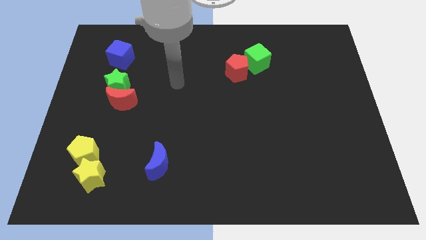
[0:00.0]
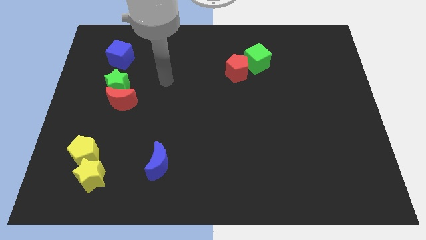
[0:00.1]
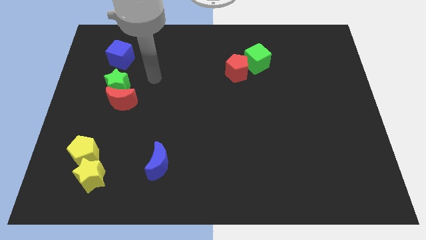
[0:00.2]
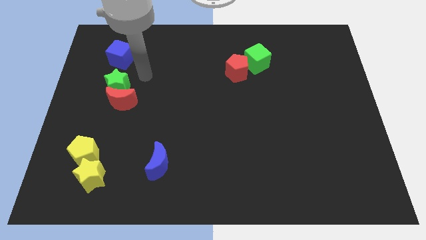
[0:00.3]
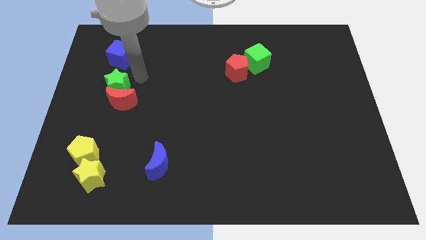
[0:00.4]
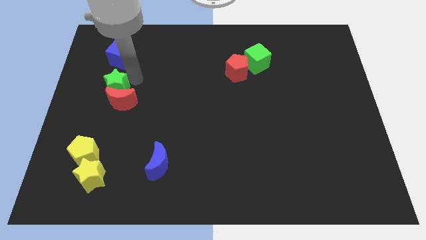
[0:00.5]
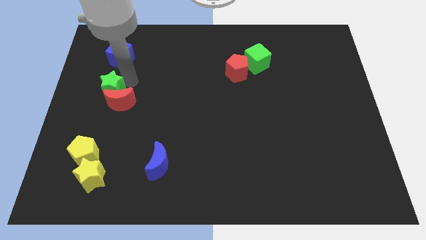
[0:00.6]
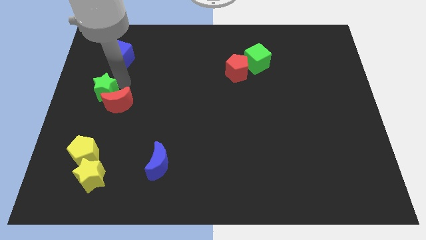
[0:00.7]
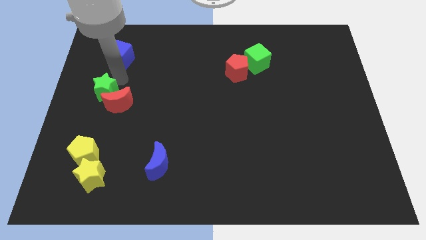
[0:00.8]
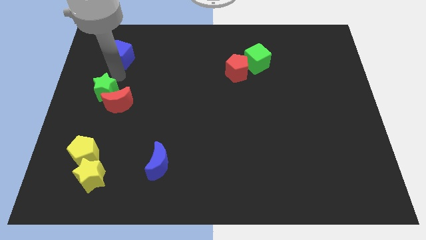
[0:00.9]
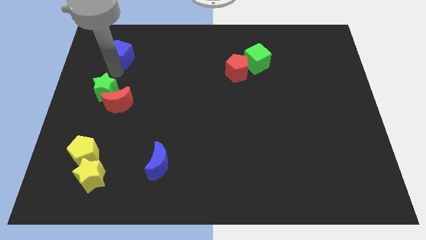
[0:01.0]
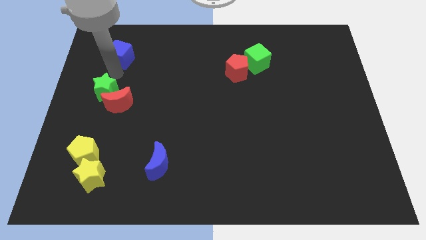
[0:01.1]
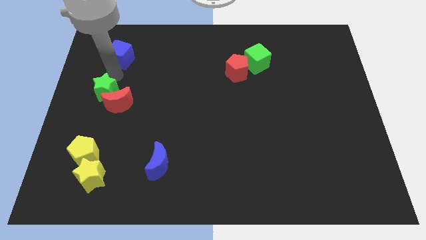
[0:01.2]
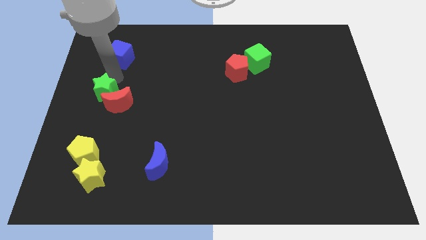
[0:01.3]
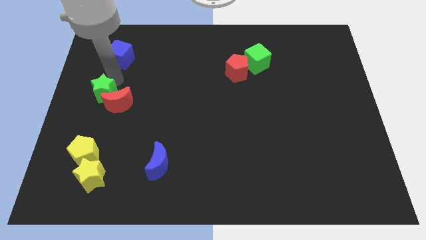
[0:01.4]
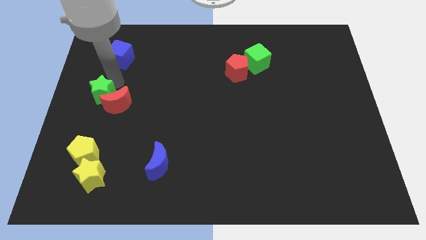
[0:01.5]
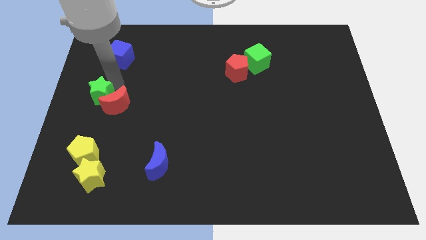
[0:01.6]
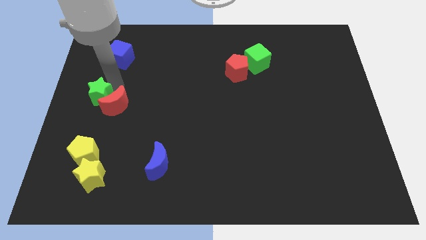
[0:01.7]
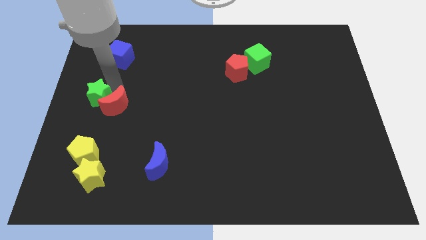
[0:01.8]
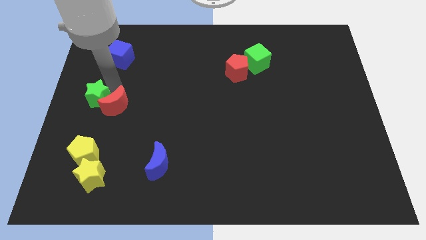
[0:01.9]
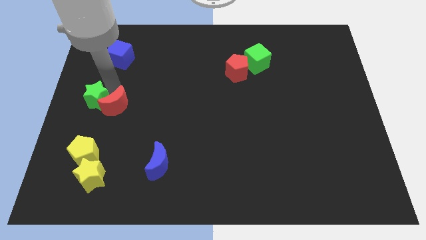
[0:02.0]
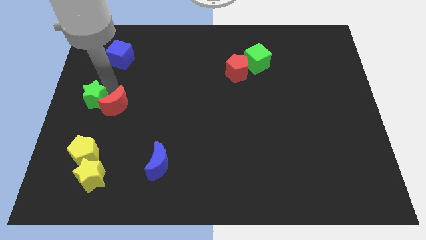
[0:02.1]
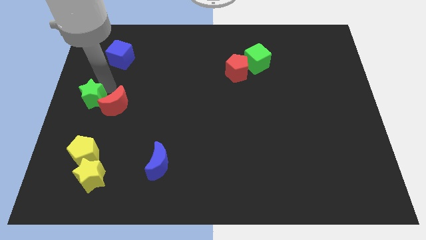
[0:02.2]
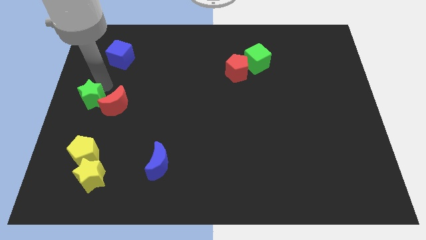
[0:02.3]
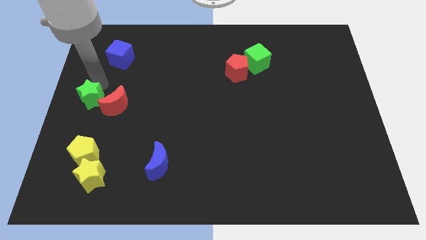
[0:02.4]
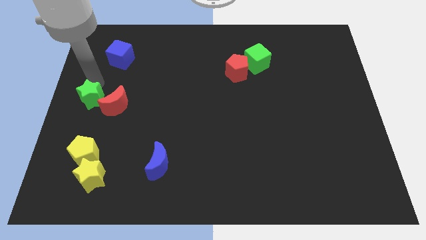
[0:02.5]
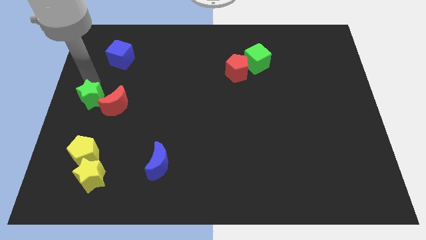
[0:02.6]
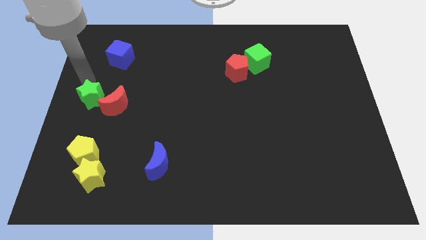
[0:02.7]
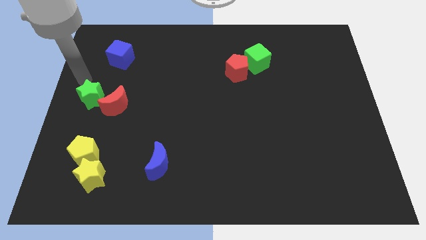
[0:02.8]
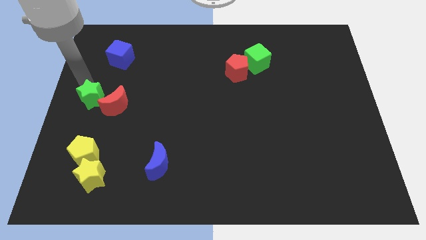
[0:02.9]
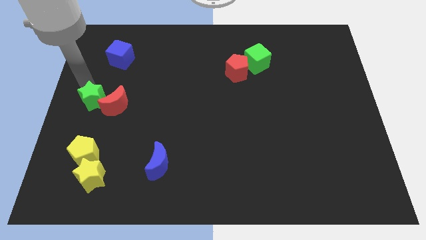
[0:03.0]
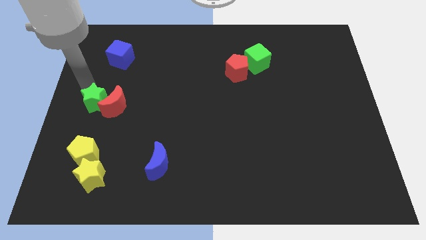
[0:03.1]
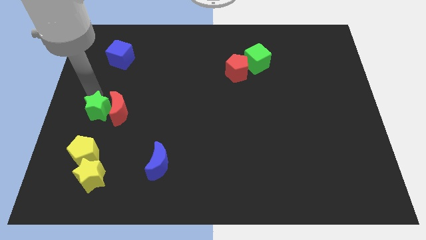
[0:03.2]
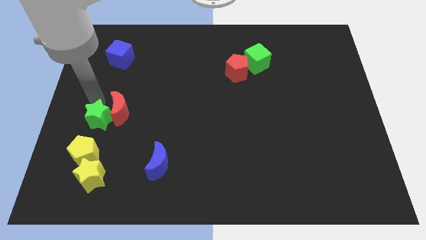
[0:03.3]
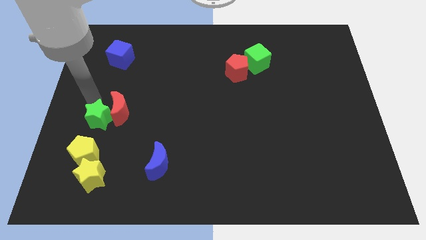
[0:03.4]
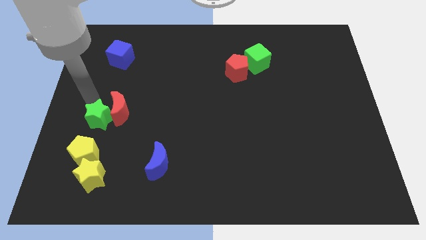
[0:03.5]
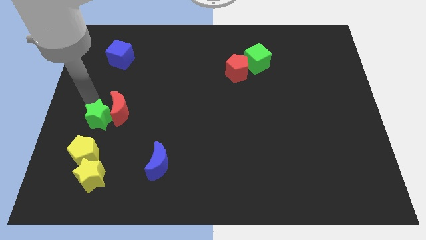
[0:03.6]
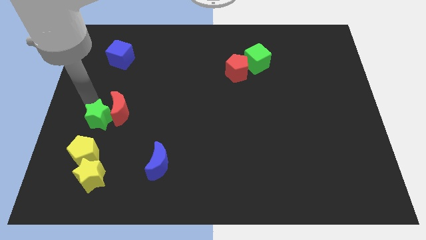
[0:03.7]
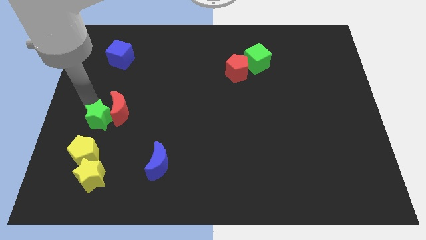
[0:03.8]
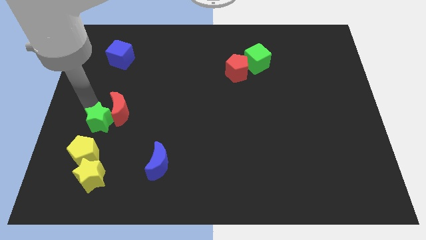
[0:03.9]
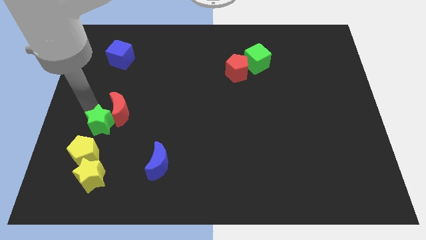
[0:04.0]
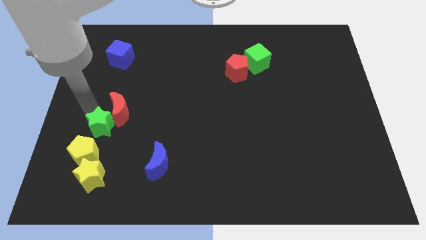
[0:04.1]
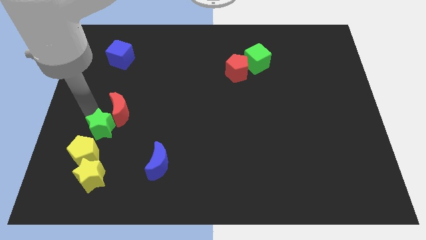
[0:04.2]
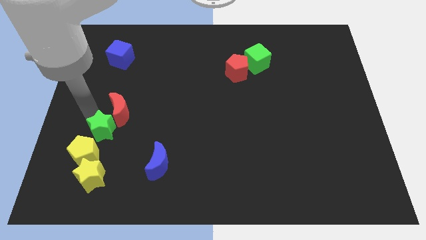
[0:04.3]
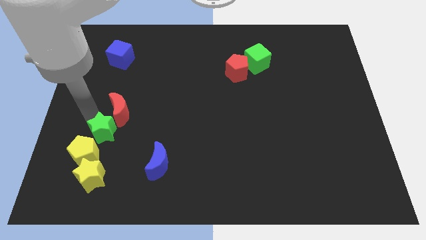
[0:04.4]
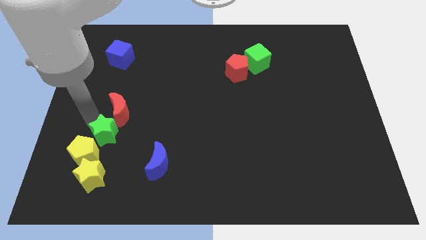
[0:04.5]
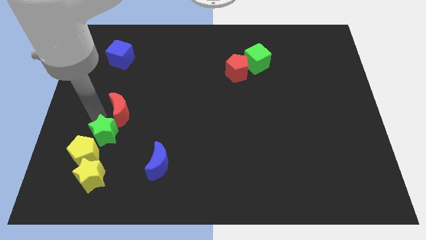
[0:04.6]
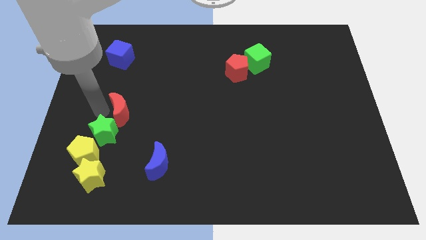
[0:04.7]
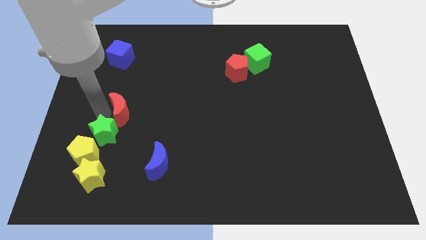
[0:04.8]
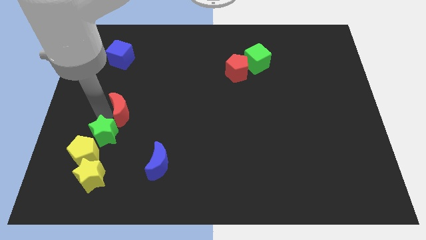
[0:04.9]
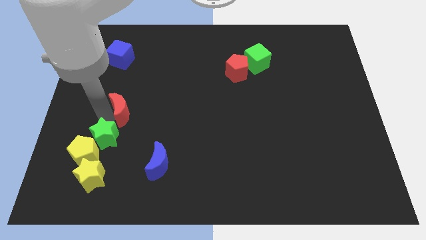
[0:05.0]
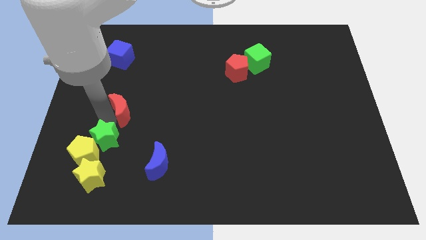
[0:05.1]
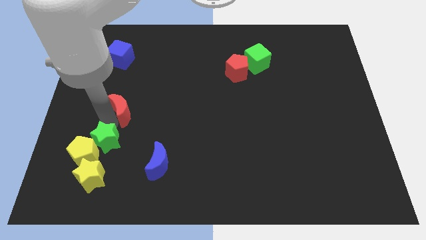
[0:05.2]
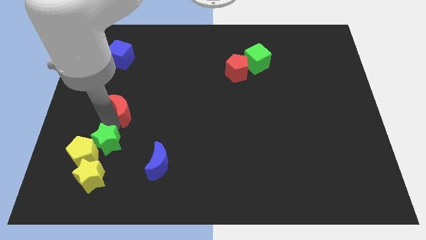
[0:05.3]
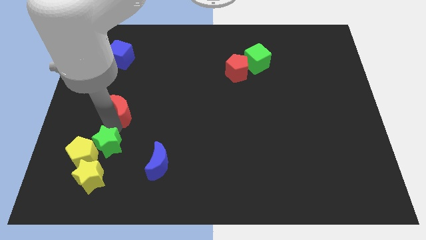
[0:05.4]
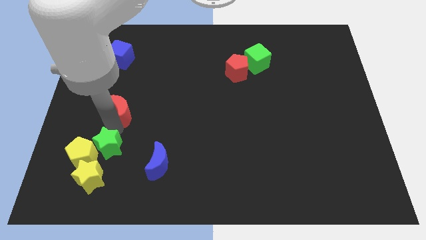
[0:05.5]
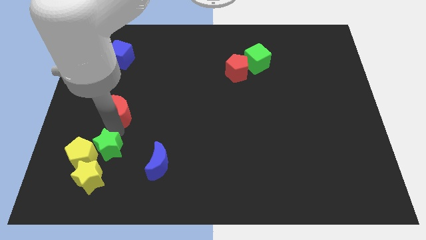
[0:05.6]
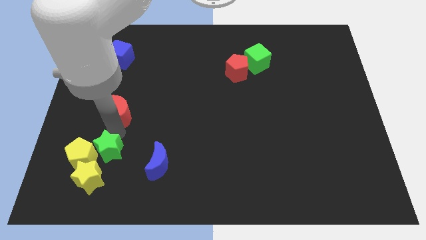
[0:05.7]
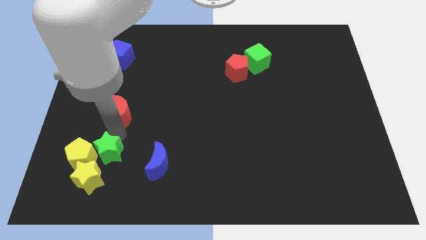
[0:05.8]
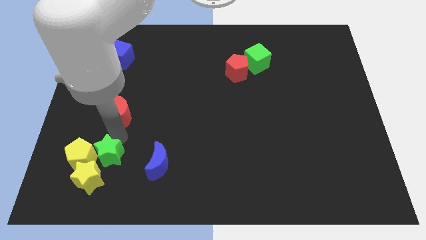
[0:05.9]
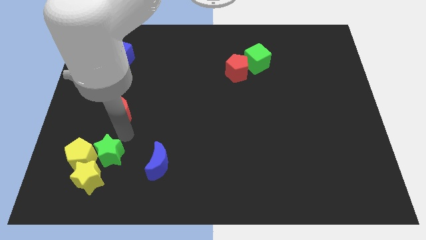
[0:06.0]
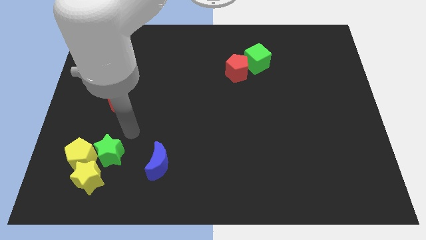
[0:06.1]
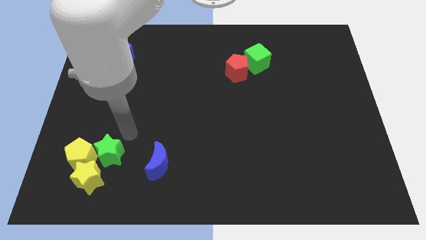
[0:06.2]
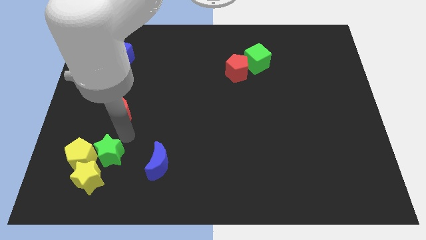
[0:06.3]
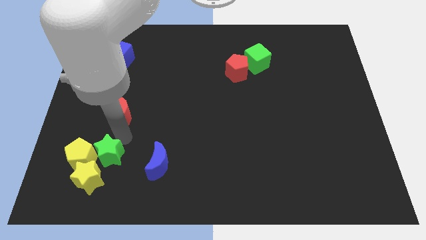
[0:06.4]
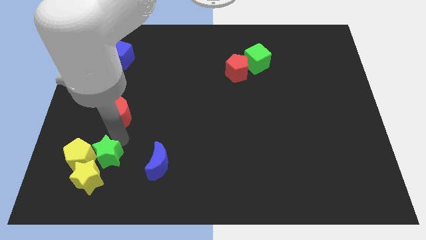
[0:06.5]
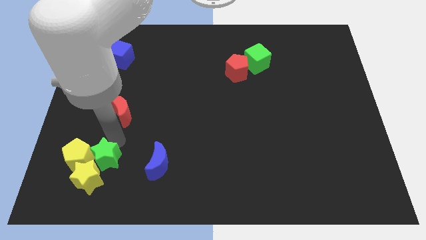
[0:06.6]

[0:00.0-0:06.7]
move the green star towards the yellow star

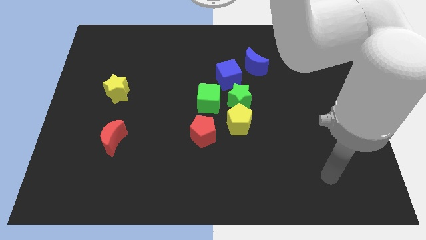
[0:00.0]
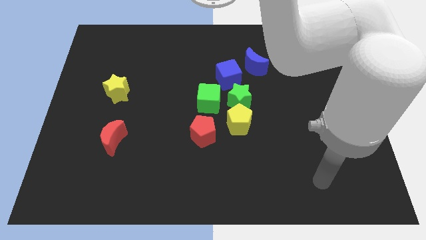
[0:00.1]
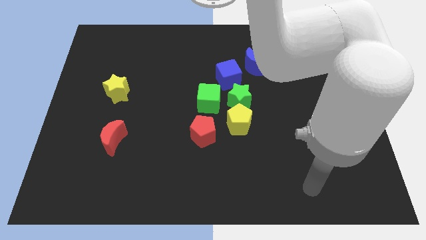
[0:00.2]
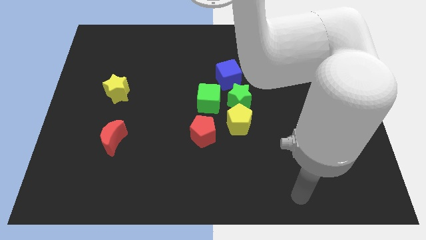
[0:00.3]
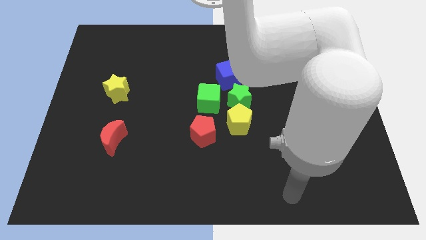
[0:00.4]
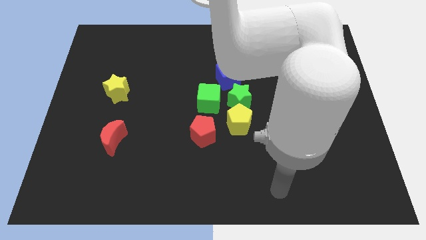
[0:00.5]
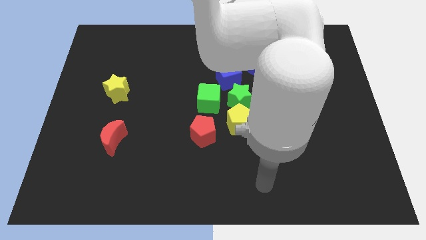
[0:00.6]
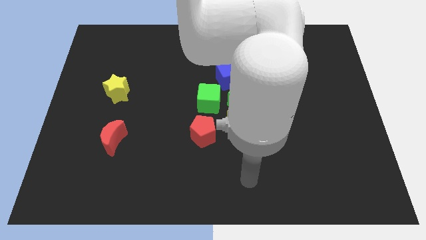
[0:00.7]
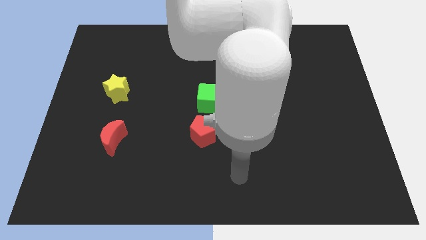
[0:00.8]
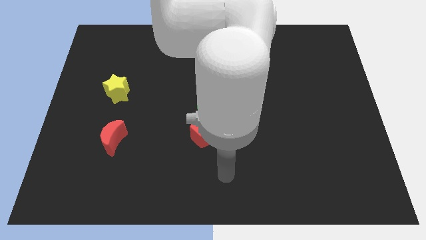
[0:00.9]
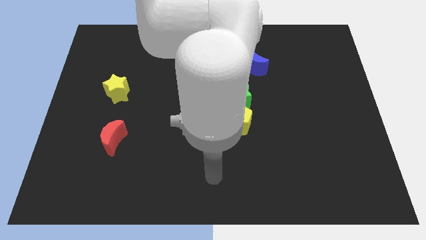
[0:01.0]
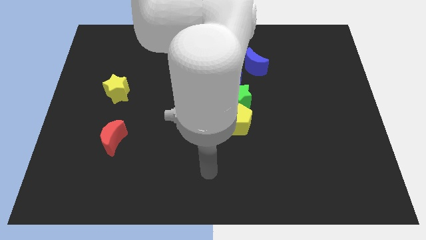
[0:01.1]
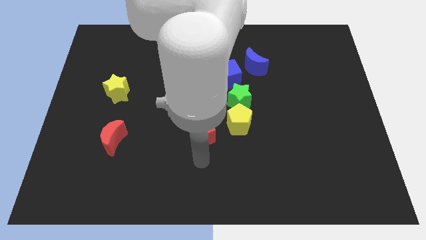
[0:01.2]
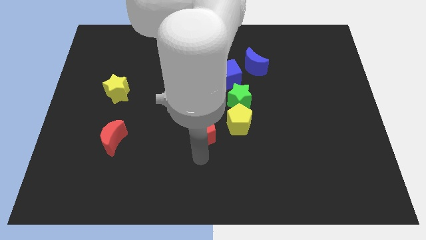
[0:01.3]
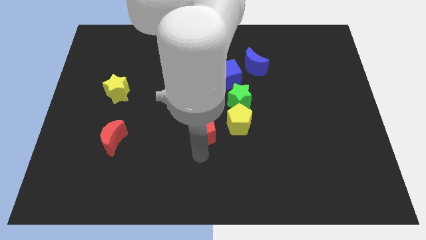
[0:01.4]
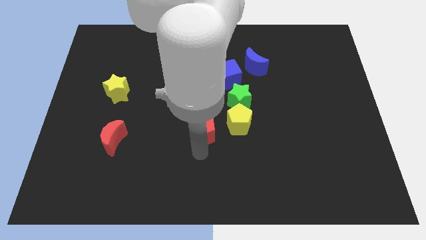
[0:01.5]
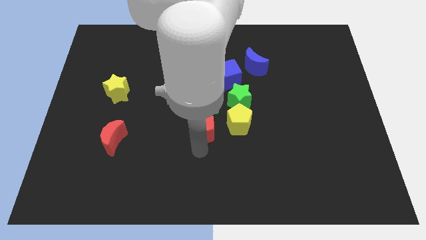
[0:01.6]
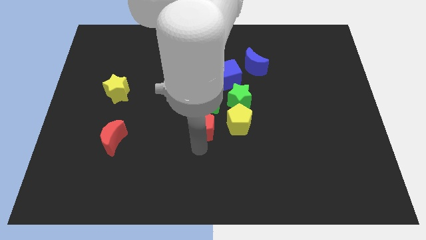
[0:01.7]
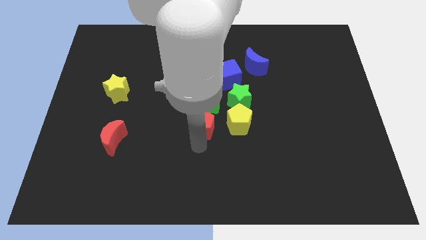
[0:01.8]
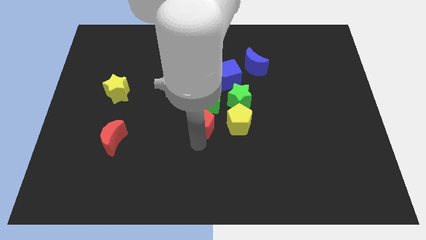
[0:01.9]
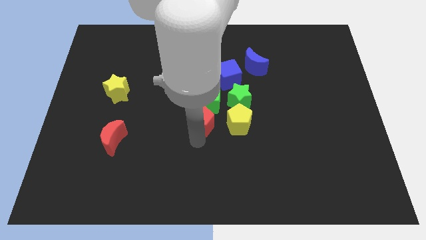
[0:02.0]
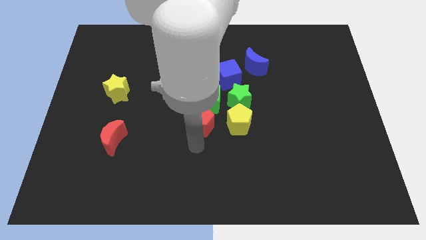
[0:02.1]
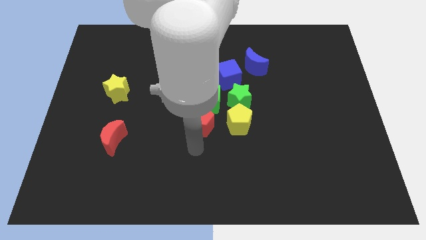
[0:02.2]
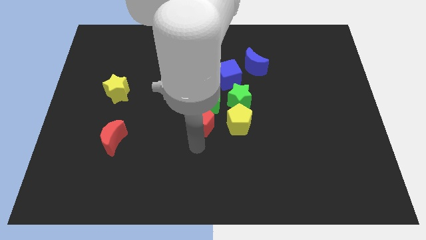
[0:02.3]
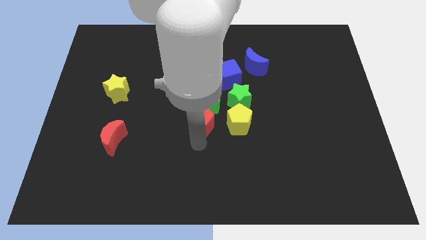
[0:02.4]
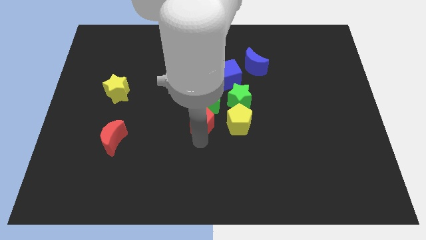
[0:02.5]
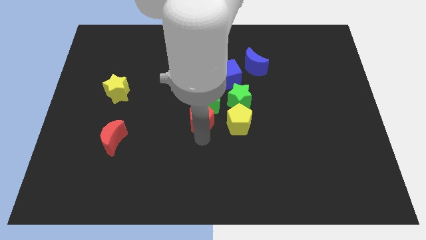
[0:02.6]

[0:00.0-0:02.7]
push the red pentagon next to the green cube
